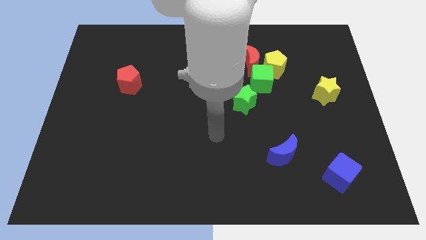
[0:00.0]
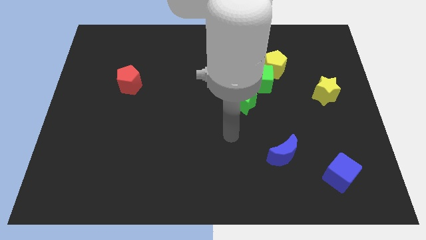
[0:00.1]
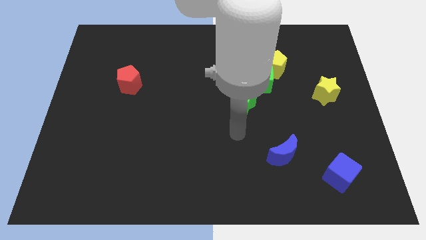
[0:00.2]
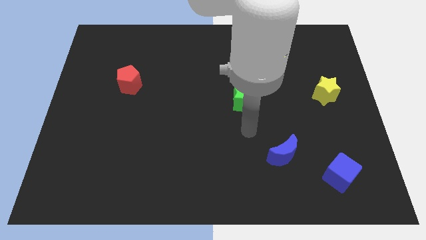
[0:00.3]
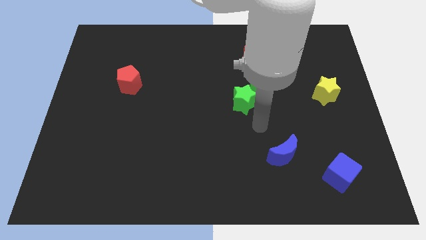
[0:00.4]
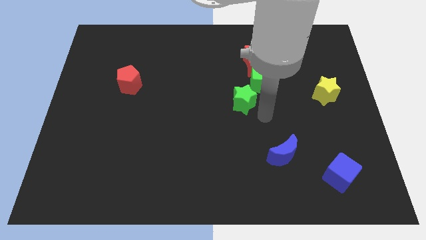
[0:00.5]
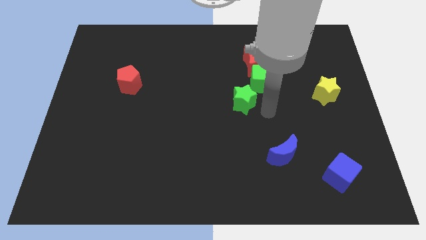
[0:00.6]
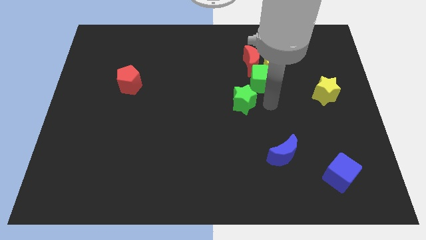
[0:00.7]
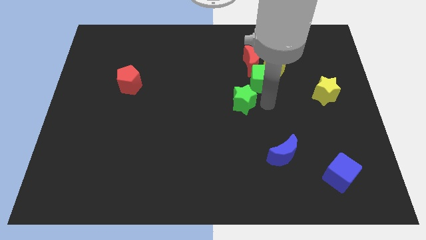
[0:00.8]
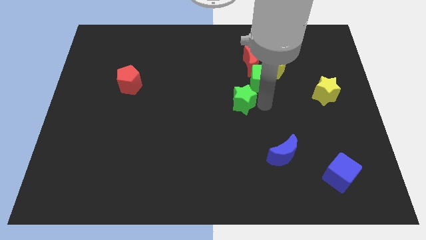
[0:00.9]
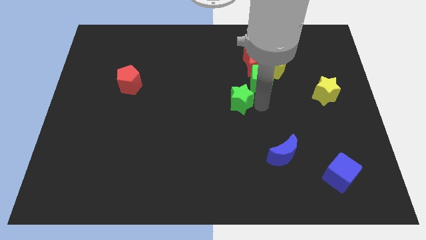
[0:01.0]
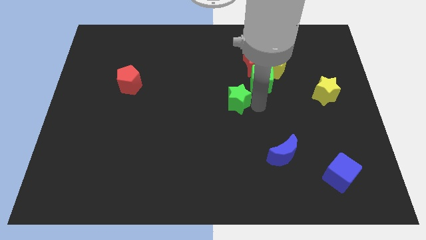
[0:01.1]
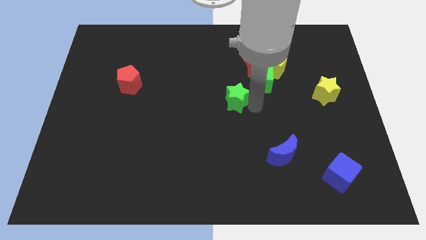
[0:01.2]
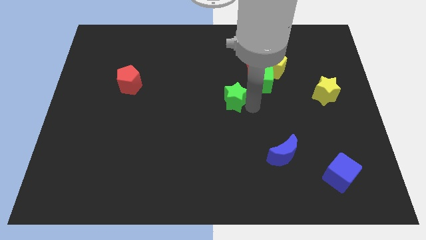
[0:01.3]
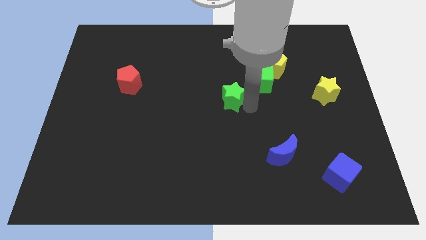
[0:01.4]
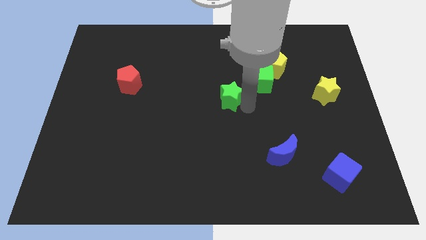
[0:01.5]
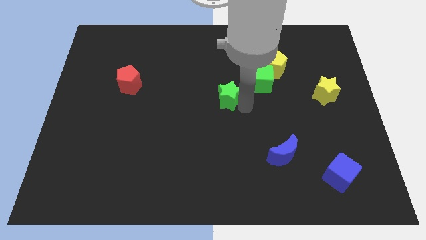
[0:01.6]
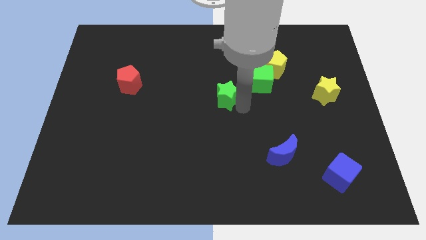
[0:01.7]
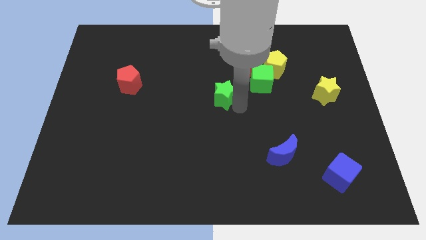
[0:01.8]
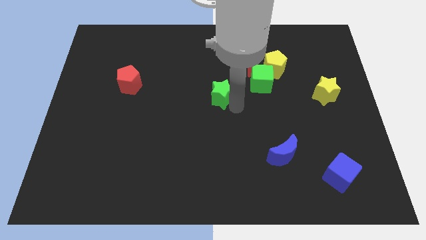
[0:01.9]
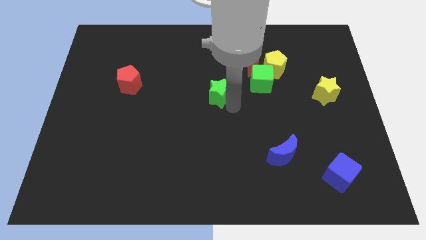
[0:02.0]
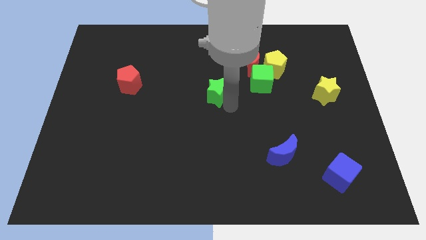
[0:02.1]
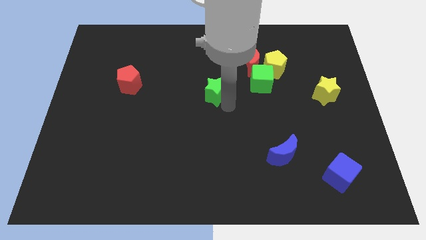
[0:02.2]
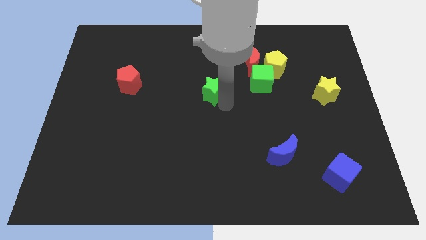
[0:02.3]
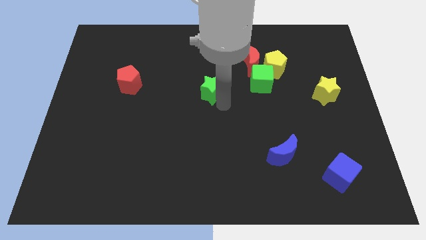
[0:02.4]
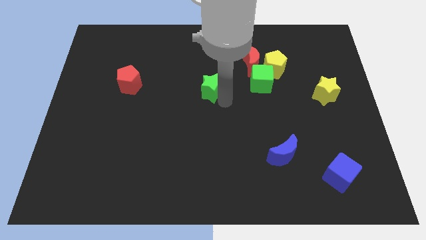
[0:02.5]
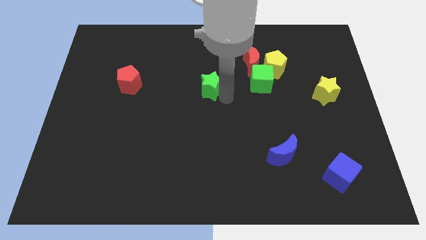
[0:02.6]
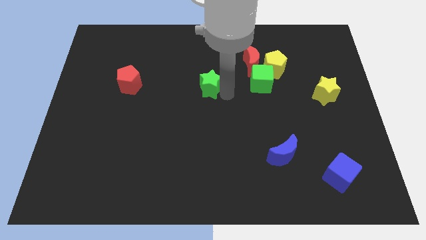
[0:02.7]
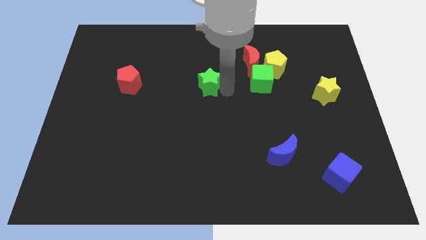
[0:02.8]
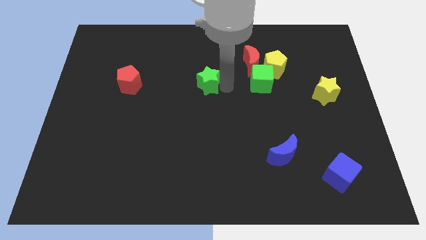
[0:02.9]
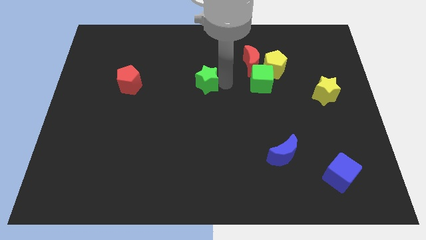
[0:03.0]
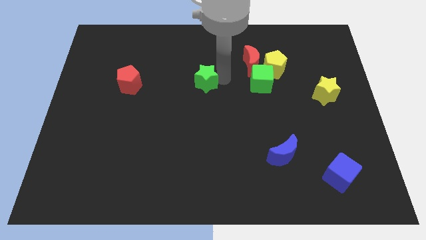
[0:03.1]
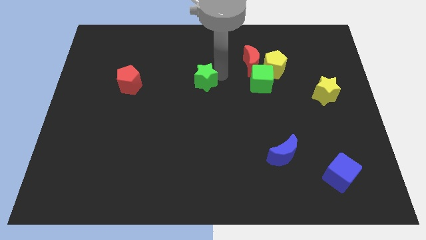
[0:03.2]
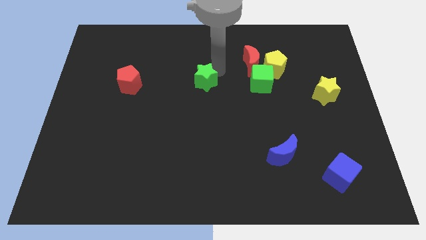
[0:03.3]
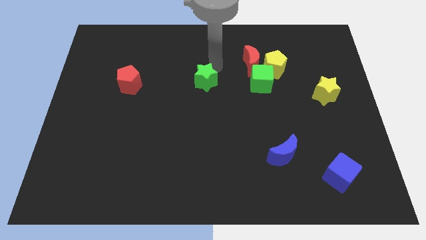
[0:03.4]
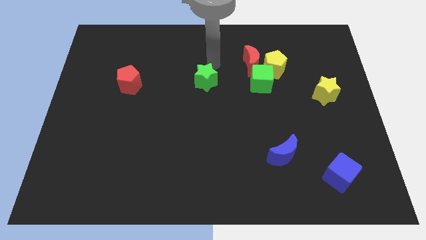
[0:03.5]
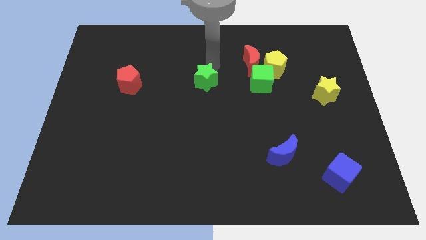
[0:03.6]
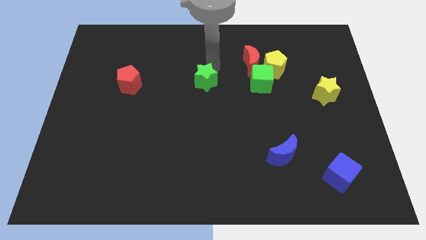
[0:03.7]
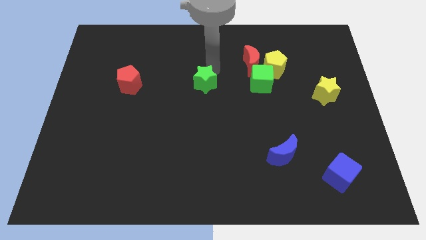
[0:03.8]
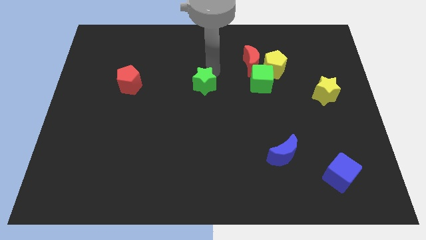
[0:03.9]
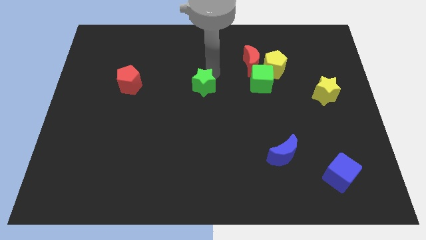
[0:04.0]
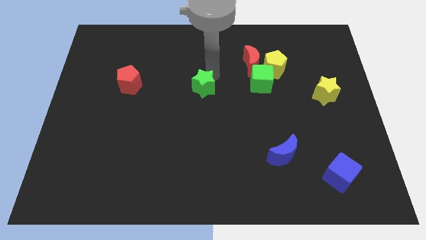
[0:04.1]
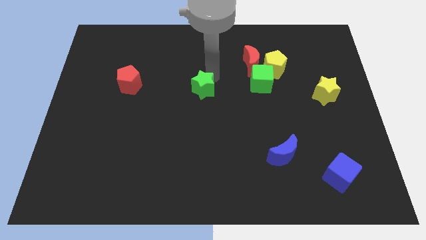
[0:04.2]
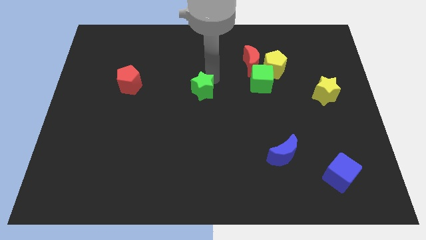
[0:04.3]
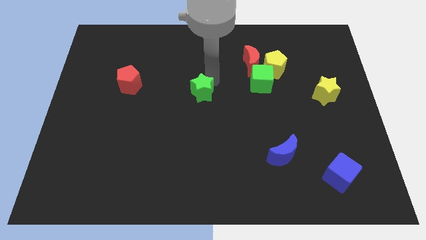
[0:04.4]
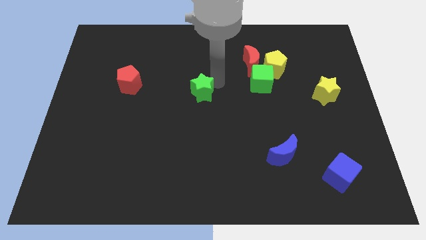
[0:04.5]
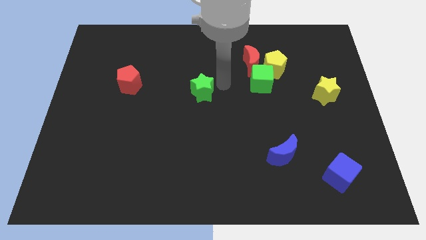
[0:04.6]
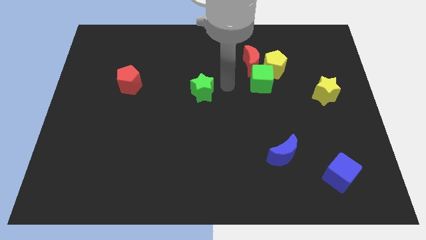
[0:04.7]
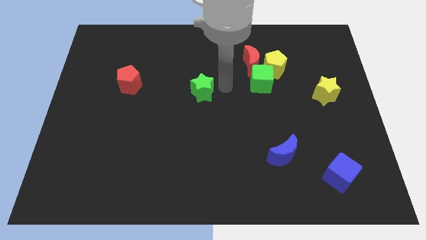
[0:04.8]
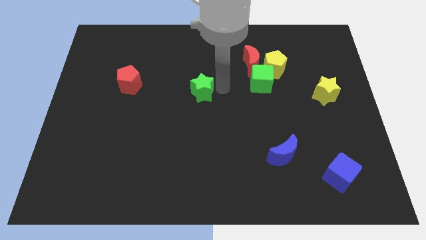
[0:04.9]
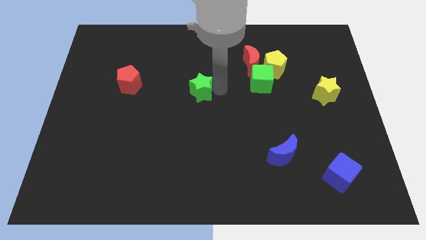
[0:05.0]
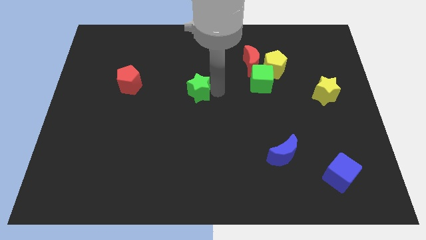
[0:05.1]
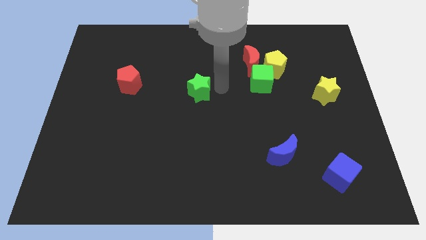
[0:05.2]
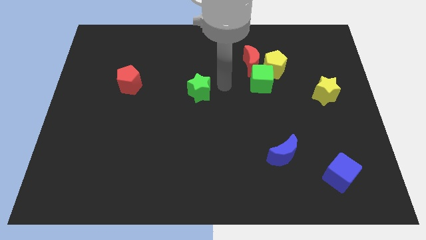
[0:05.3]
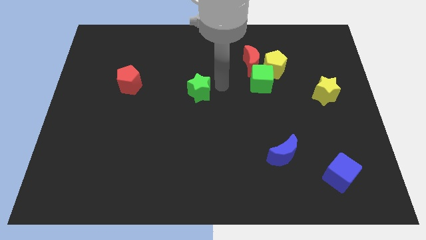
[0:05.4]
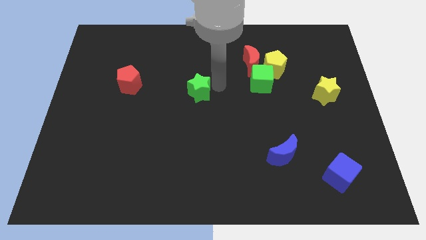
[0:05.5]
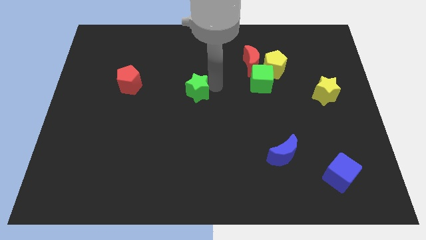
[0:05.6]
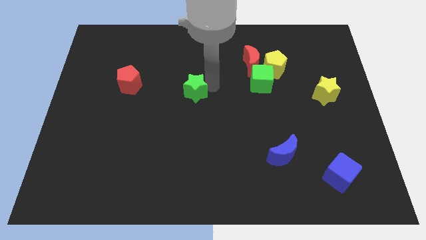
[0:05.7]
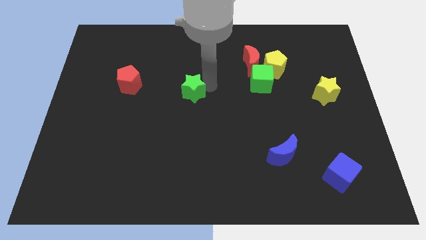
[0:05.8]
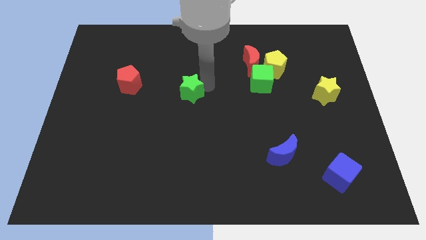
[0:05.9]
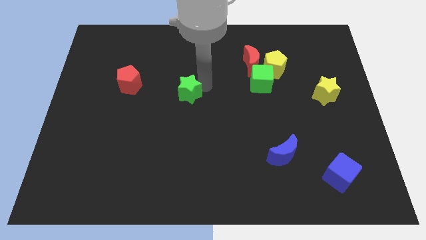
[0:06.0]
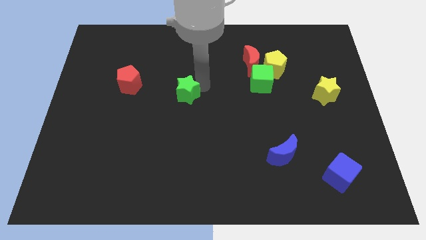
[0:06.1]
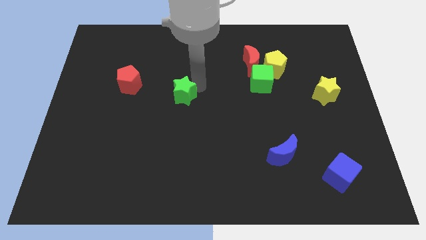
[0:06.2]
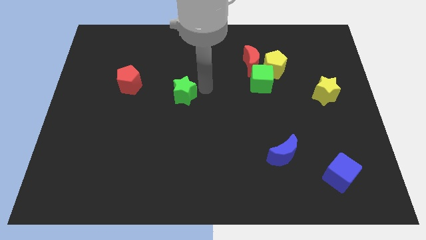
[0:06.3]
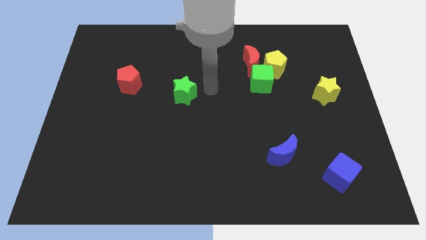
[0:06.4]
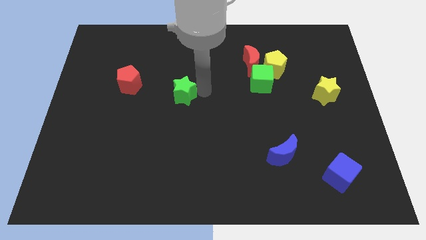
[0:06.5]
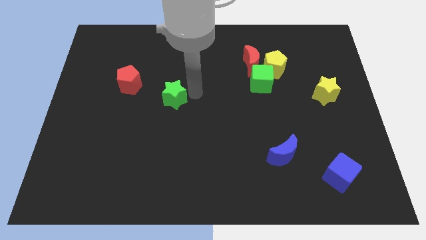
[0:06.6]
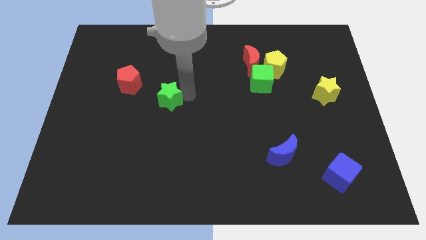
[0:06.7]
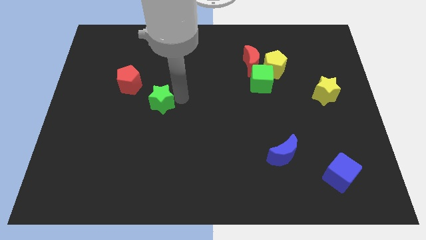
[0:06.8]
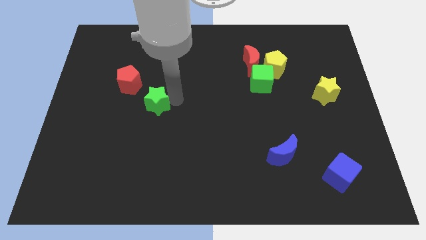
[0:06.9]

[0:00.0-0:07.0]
push the green star to the left

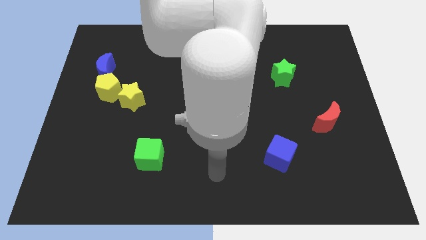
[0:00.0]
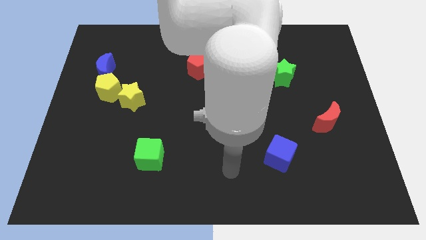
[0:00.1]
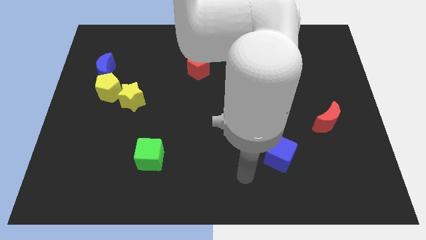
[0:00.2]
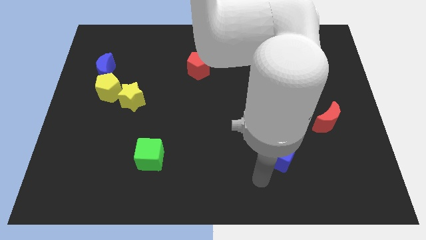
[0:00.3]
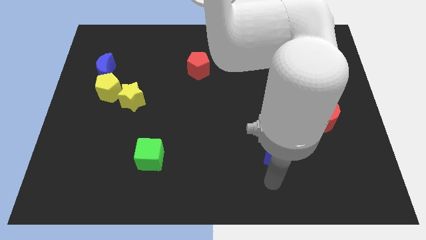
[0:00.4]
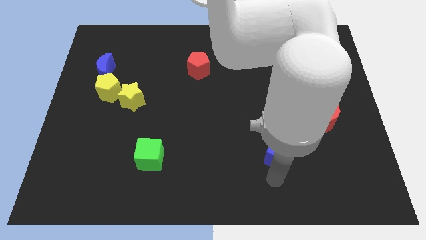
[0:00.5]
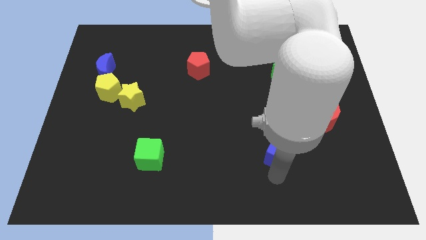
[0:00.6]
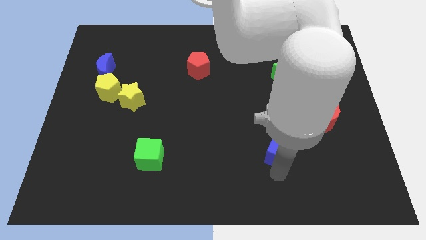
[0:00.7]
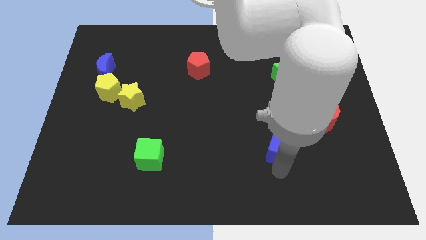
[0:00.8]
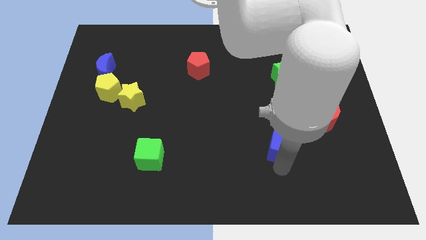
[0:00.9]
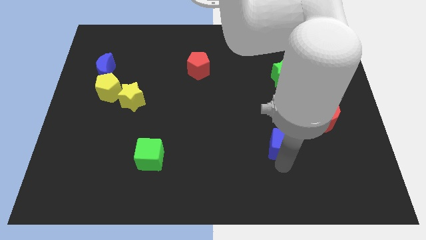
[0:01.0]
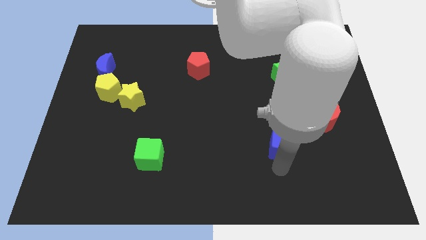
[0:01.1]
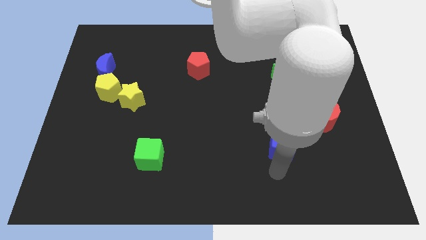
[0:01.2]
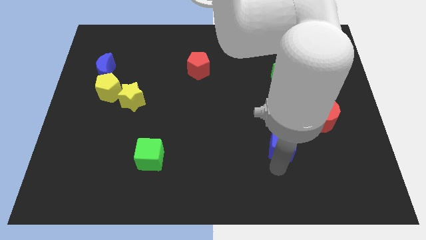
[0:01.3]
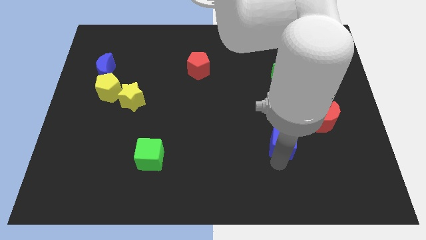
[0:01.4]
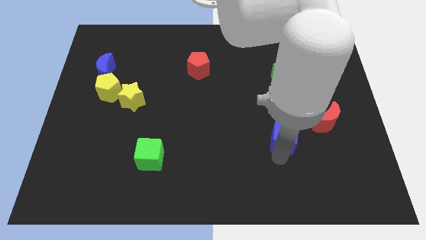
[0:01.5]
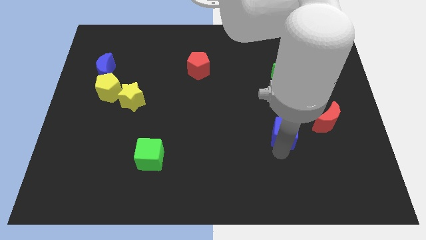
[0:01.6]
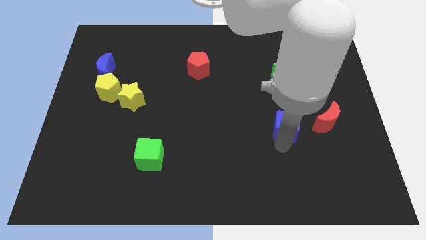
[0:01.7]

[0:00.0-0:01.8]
move the blue cube somewhat up
